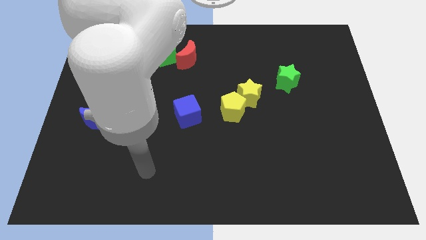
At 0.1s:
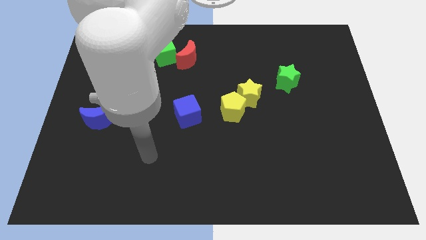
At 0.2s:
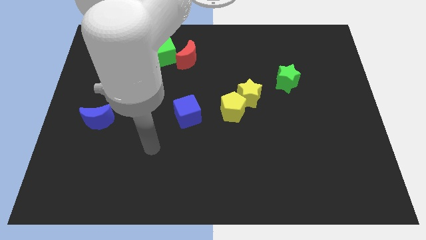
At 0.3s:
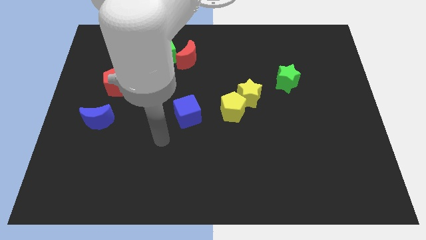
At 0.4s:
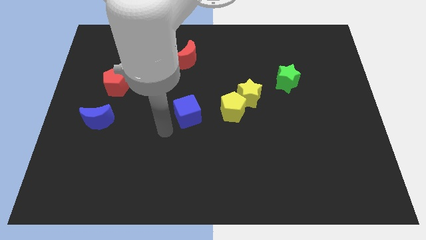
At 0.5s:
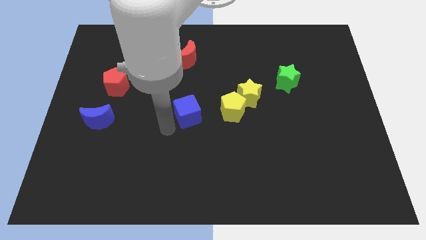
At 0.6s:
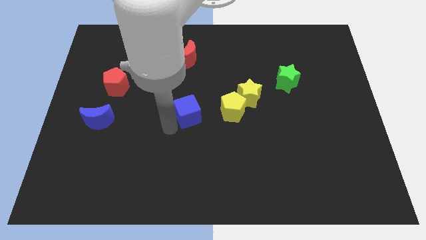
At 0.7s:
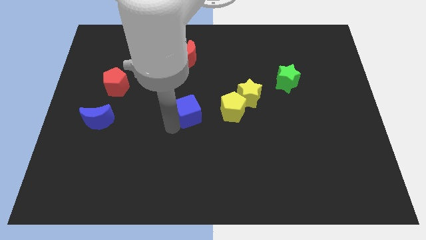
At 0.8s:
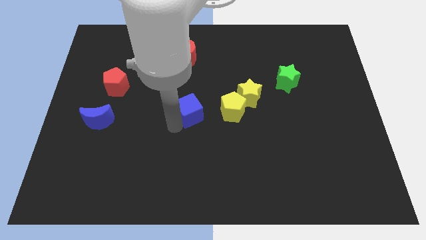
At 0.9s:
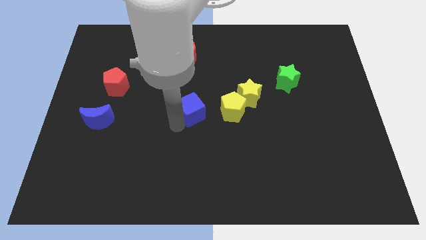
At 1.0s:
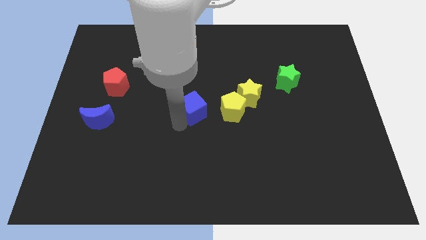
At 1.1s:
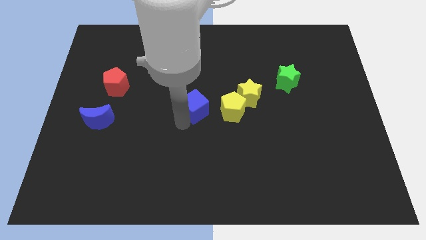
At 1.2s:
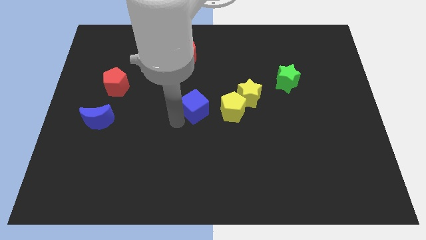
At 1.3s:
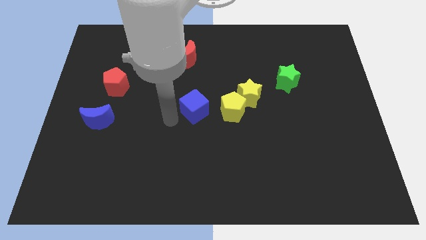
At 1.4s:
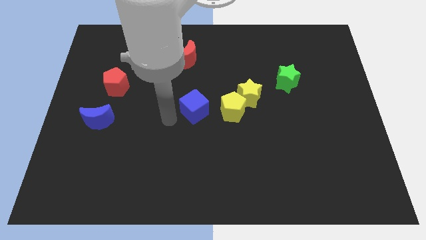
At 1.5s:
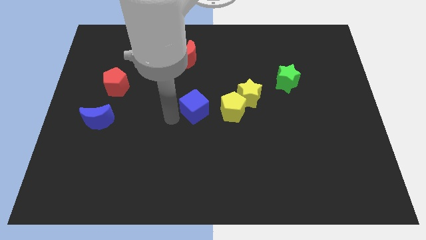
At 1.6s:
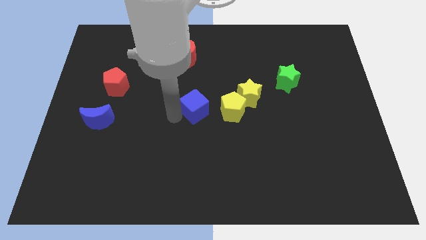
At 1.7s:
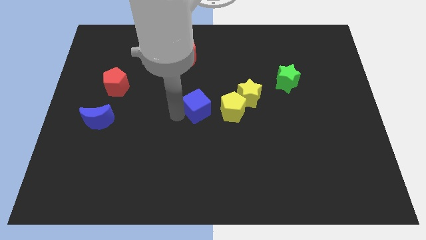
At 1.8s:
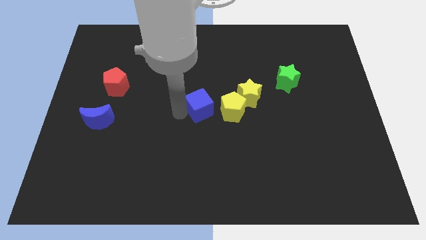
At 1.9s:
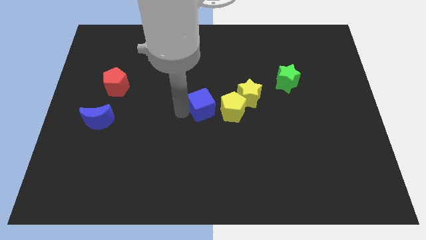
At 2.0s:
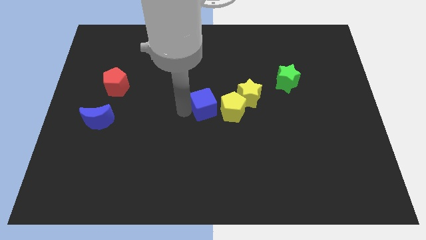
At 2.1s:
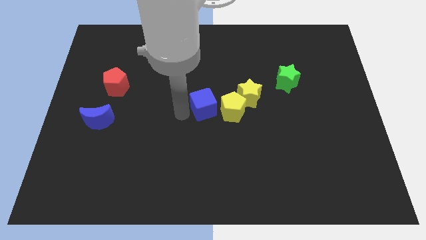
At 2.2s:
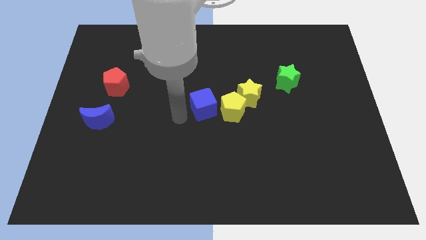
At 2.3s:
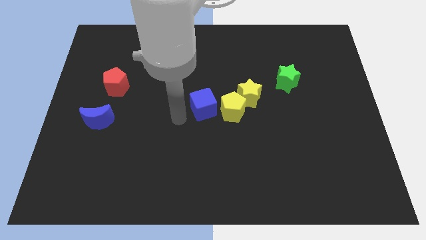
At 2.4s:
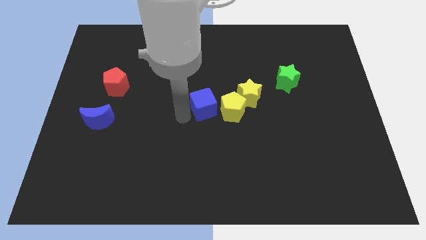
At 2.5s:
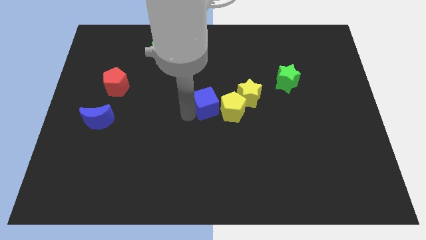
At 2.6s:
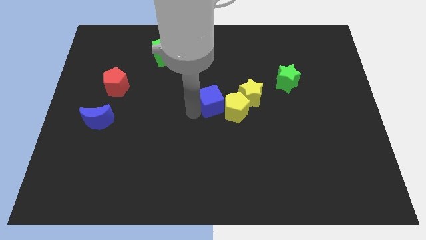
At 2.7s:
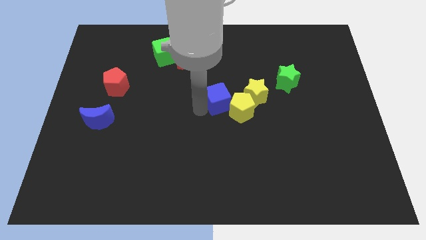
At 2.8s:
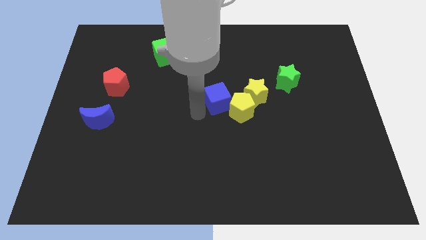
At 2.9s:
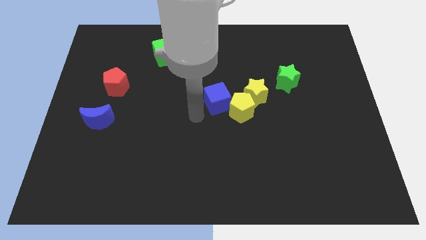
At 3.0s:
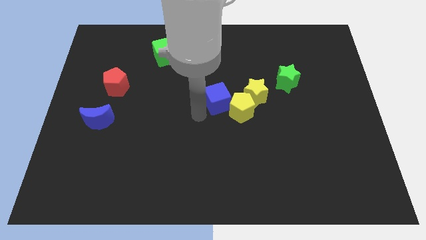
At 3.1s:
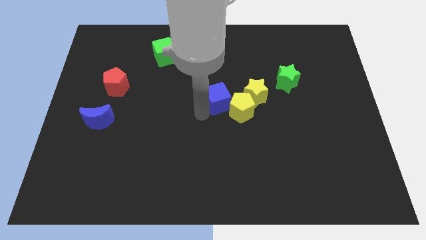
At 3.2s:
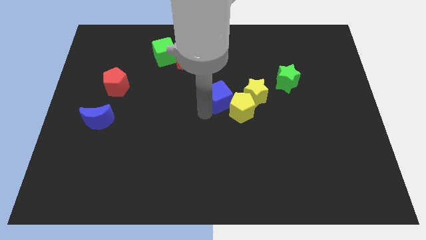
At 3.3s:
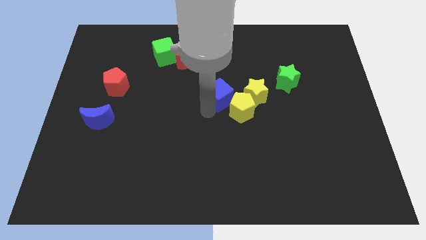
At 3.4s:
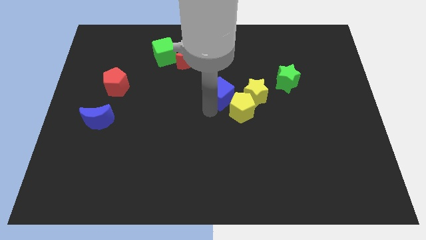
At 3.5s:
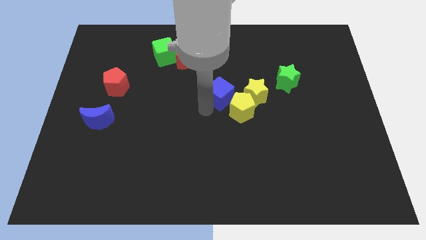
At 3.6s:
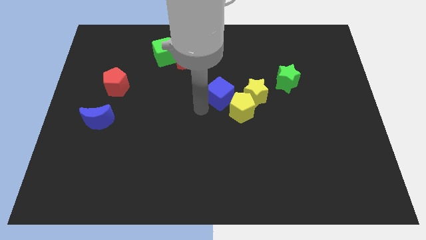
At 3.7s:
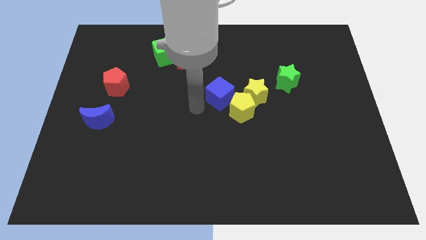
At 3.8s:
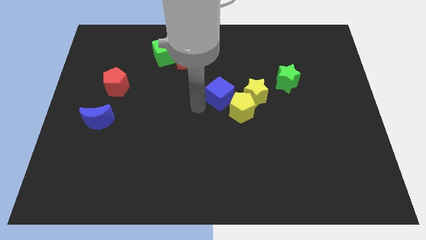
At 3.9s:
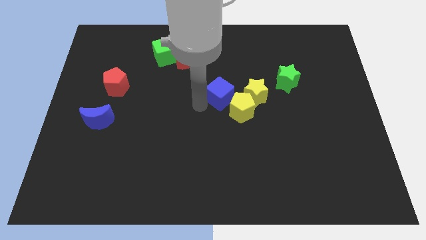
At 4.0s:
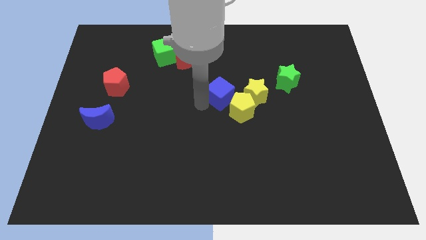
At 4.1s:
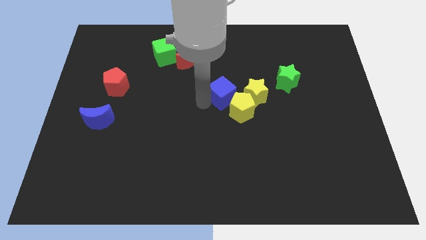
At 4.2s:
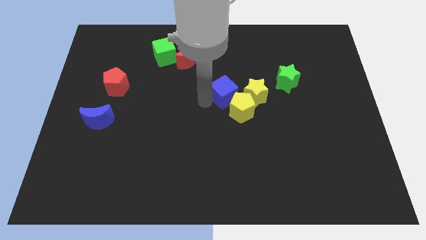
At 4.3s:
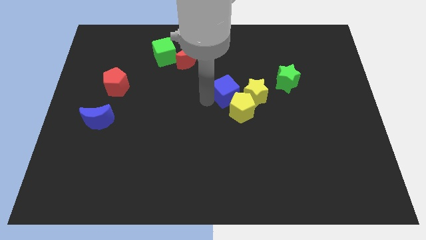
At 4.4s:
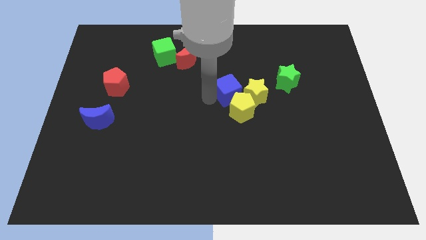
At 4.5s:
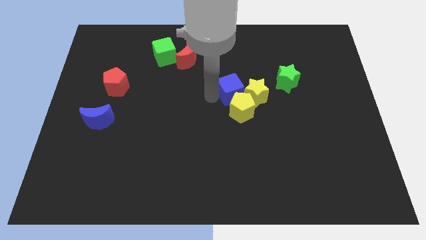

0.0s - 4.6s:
move the blue cube towards the yellow star

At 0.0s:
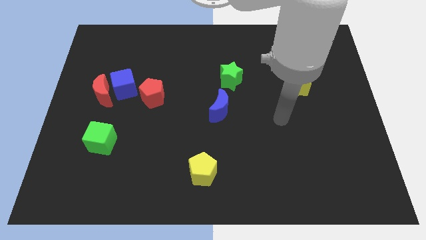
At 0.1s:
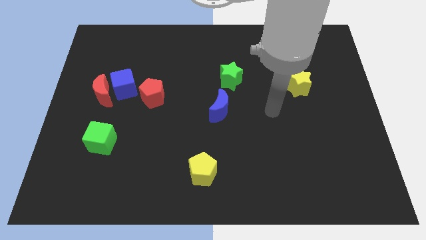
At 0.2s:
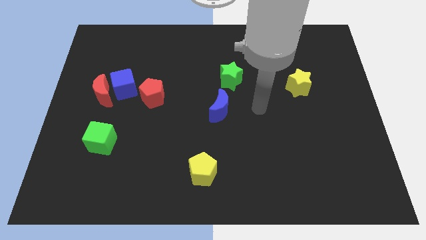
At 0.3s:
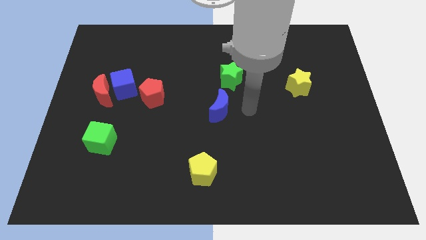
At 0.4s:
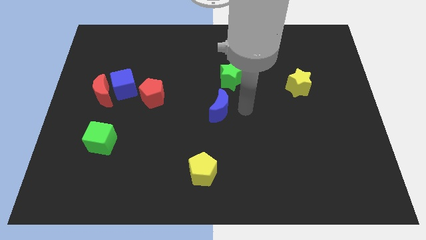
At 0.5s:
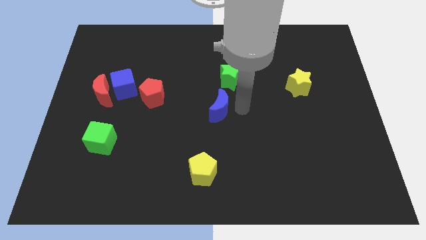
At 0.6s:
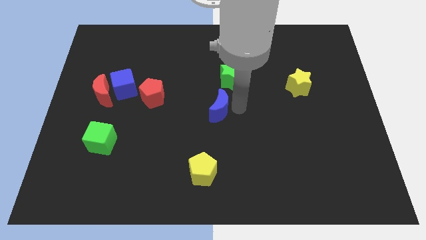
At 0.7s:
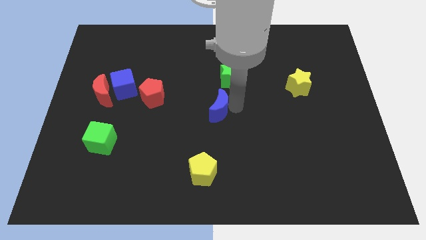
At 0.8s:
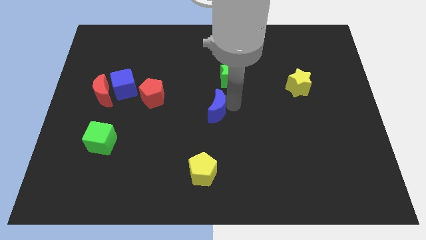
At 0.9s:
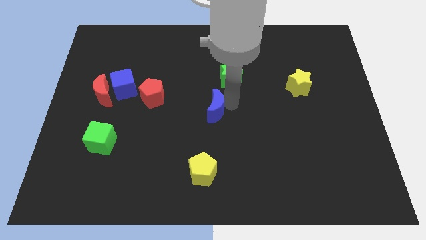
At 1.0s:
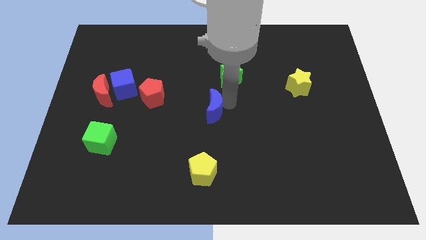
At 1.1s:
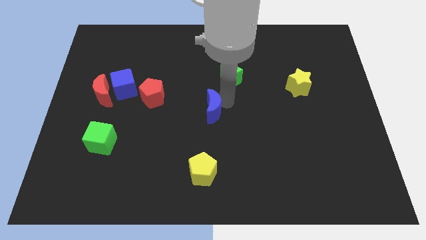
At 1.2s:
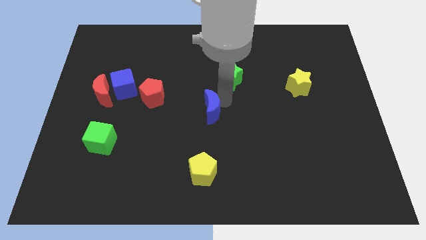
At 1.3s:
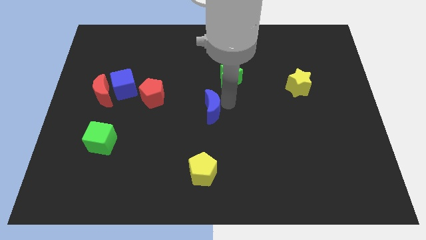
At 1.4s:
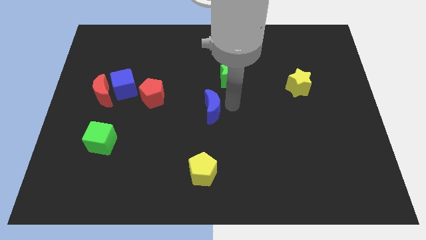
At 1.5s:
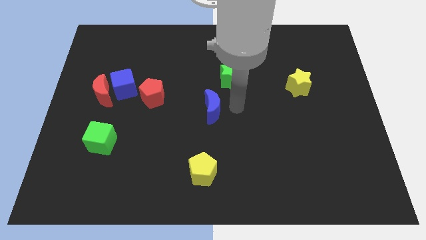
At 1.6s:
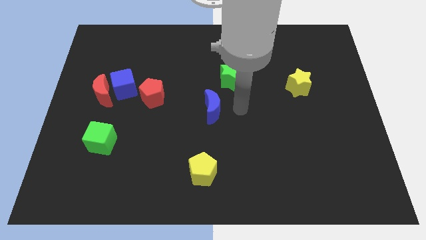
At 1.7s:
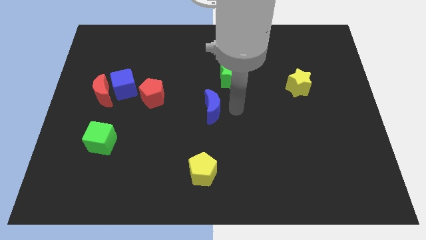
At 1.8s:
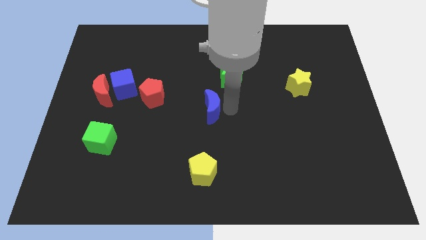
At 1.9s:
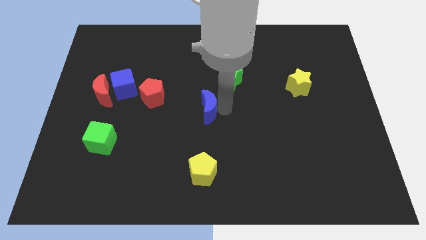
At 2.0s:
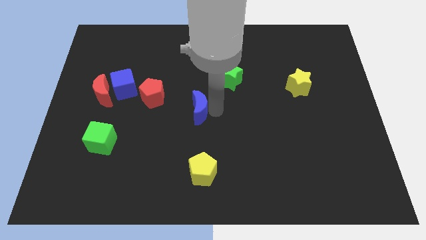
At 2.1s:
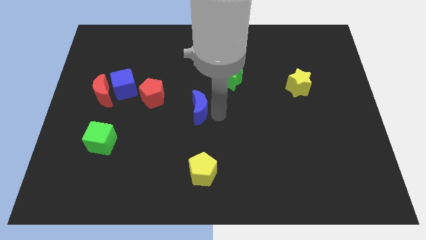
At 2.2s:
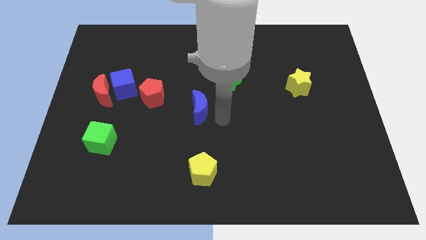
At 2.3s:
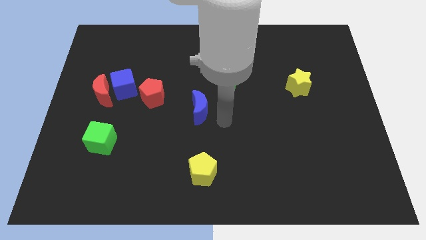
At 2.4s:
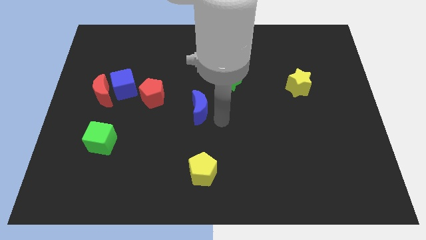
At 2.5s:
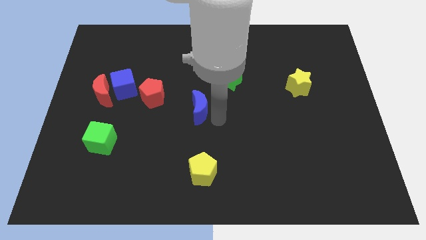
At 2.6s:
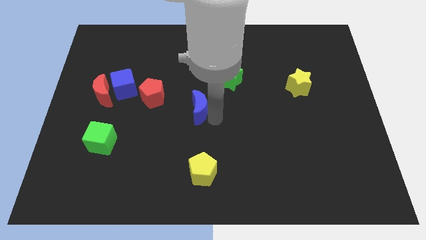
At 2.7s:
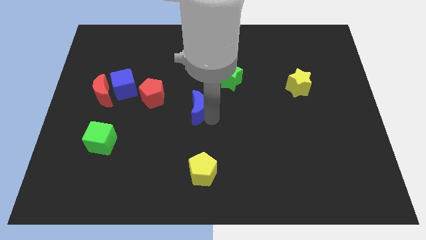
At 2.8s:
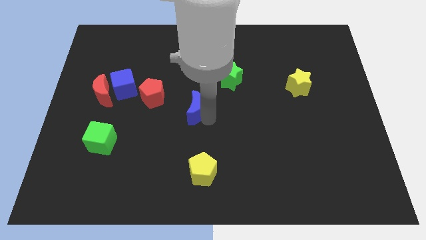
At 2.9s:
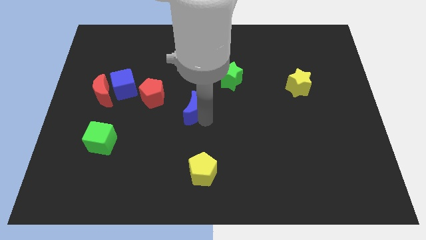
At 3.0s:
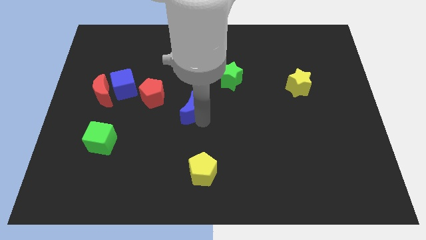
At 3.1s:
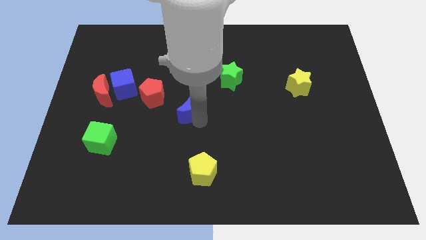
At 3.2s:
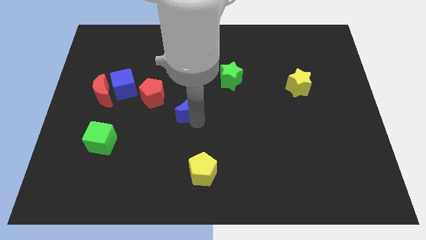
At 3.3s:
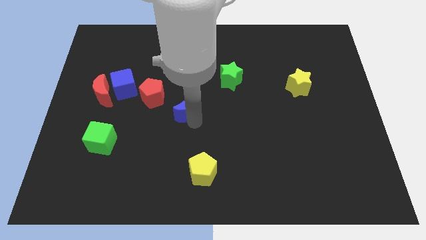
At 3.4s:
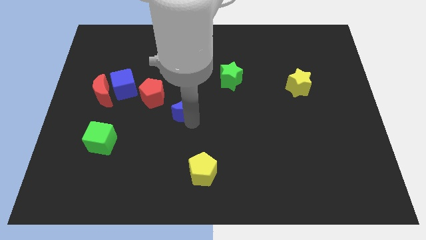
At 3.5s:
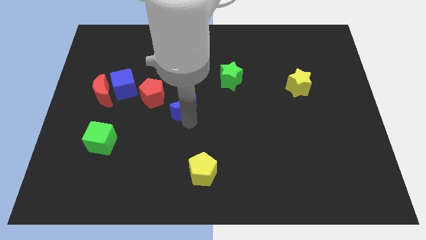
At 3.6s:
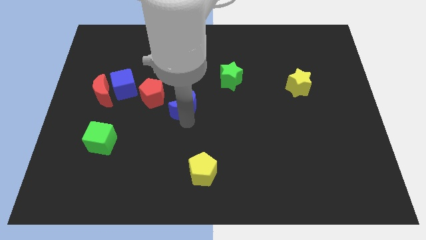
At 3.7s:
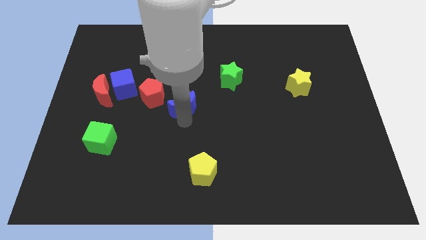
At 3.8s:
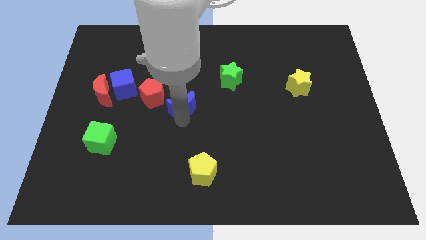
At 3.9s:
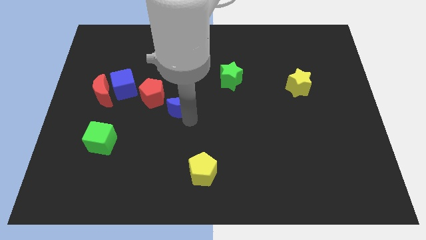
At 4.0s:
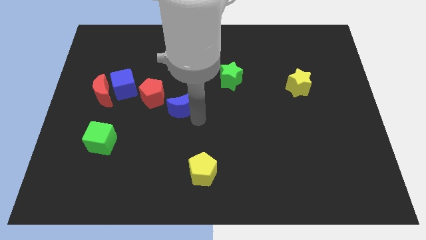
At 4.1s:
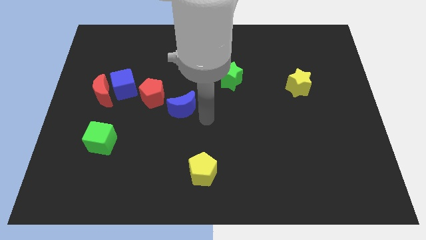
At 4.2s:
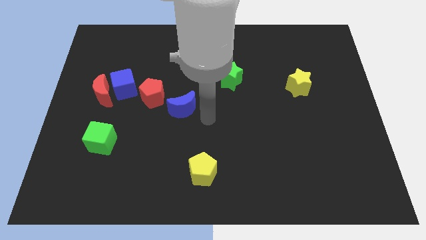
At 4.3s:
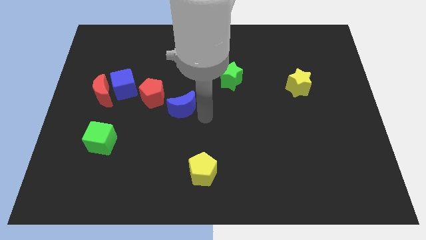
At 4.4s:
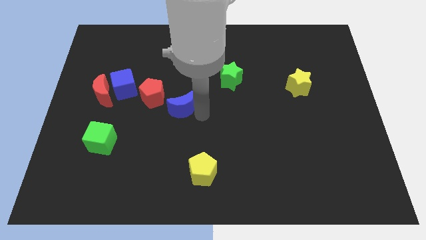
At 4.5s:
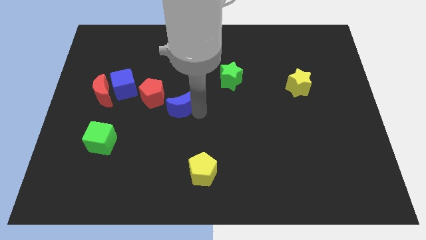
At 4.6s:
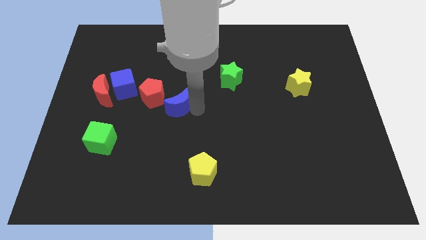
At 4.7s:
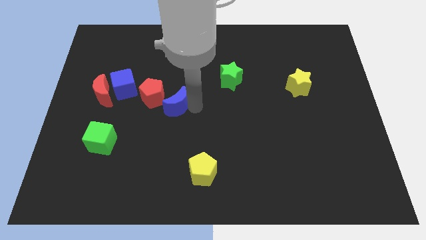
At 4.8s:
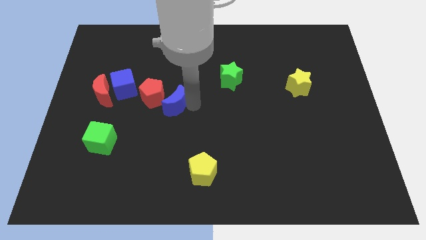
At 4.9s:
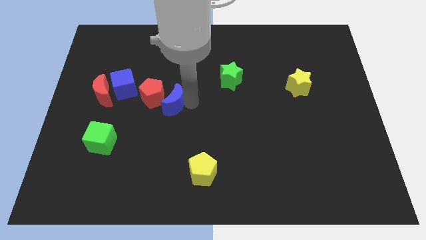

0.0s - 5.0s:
push the blue moon towards the red pentagon
